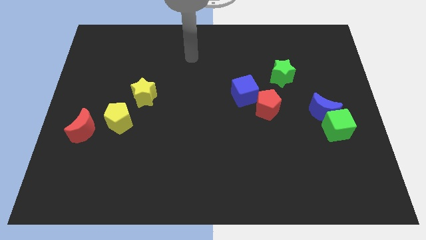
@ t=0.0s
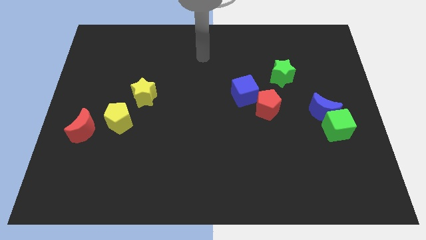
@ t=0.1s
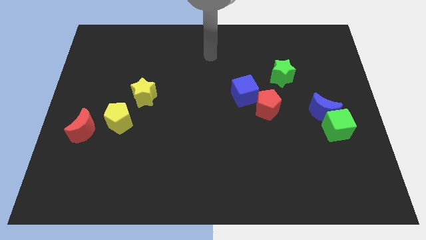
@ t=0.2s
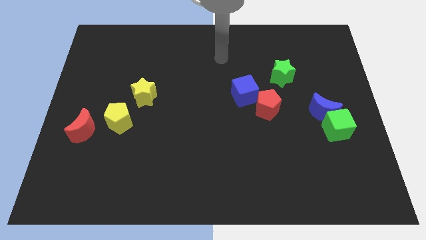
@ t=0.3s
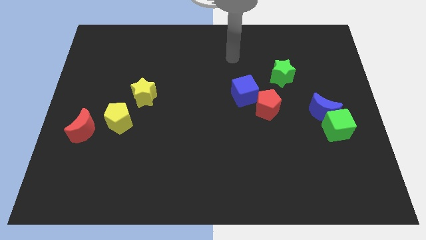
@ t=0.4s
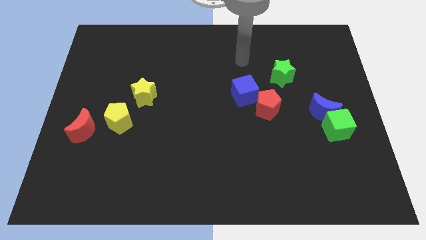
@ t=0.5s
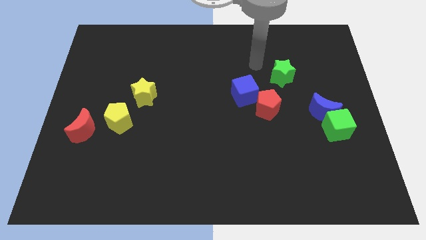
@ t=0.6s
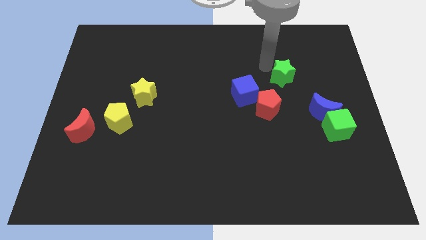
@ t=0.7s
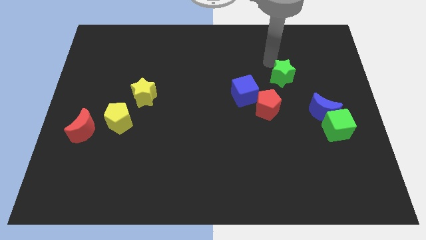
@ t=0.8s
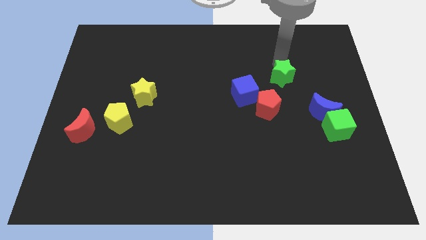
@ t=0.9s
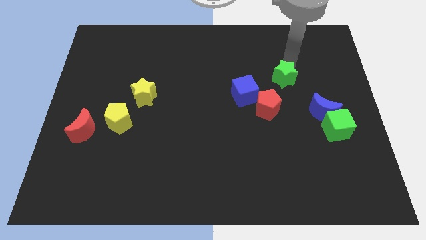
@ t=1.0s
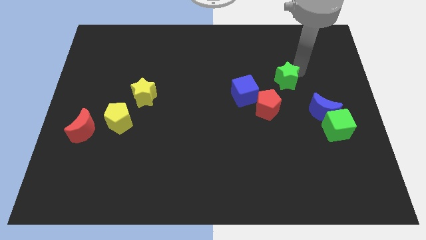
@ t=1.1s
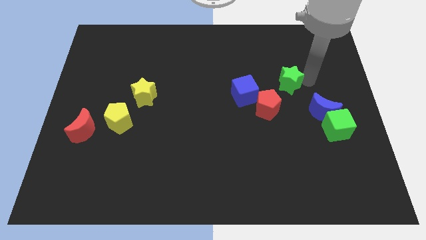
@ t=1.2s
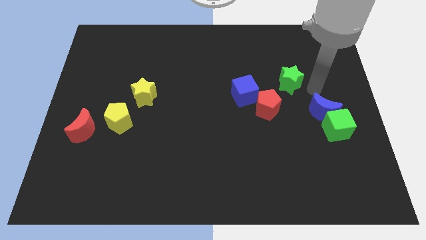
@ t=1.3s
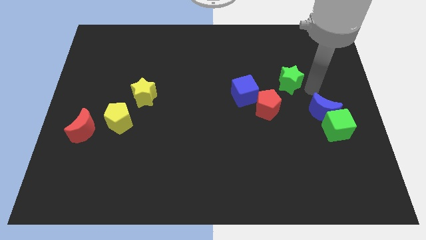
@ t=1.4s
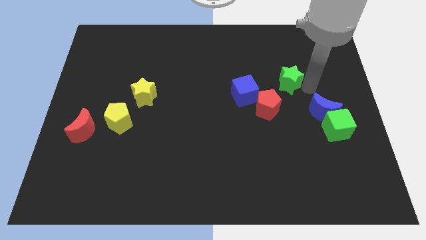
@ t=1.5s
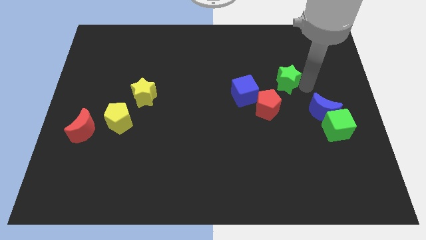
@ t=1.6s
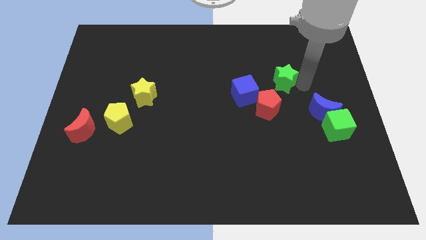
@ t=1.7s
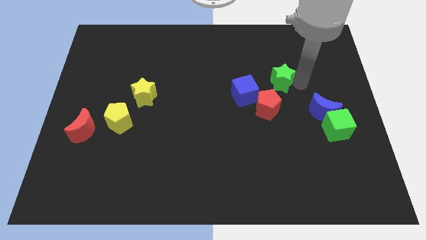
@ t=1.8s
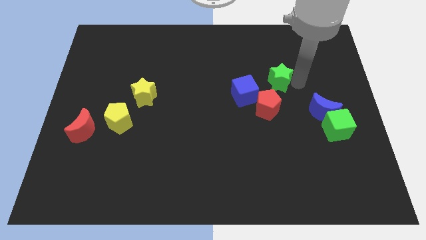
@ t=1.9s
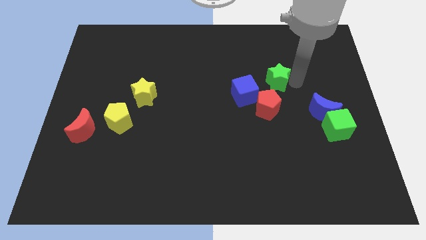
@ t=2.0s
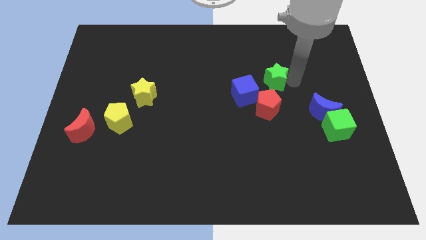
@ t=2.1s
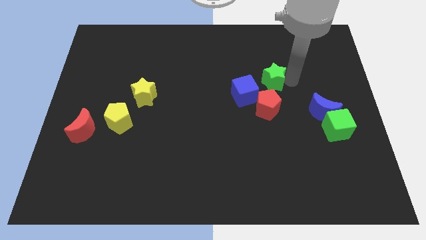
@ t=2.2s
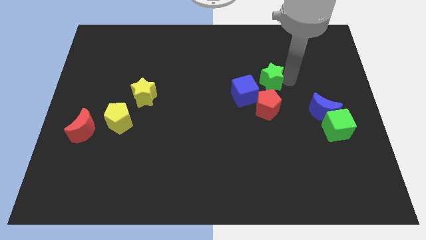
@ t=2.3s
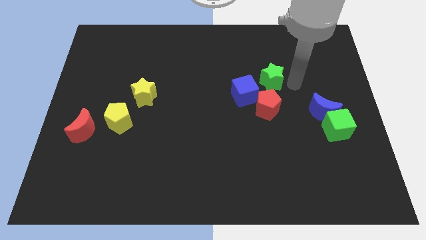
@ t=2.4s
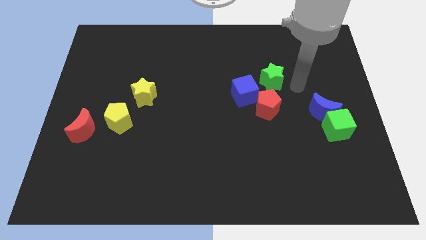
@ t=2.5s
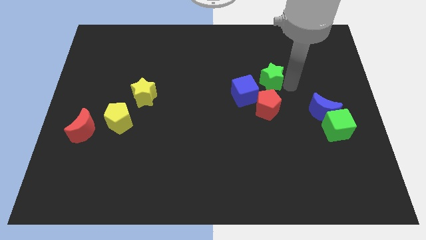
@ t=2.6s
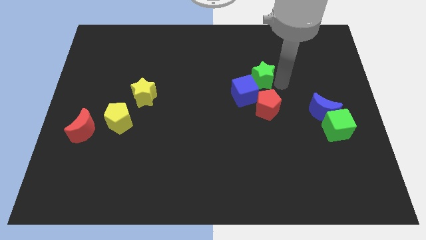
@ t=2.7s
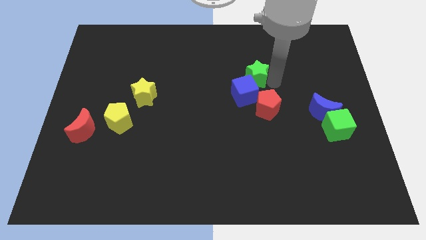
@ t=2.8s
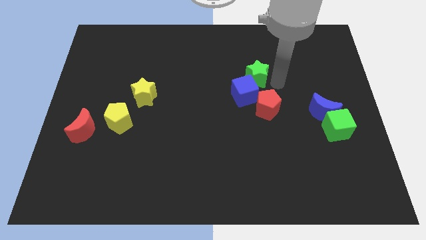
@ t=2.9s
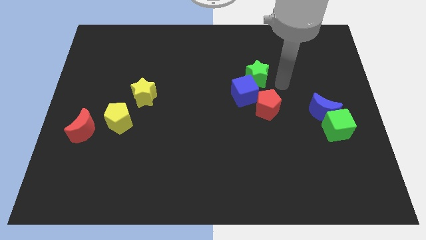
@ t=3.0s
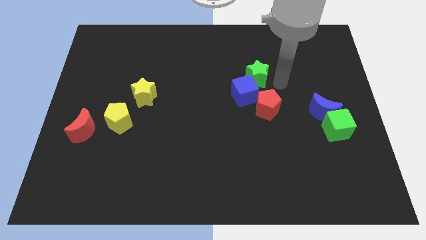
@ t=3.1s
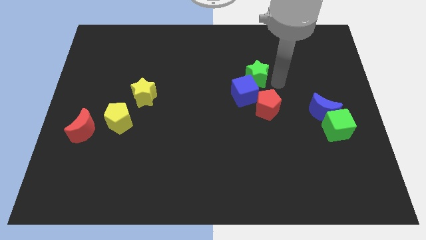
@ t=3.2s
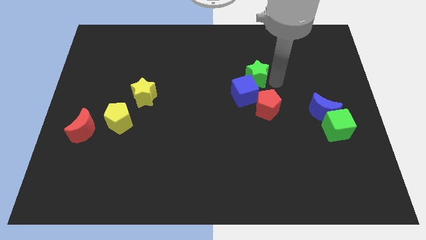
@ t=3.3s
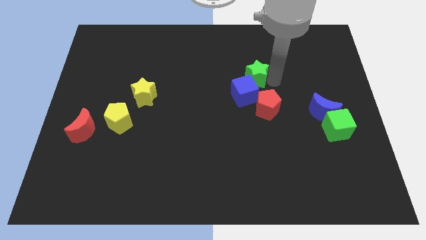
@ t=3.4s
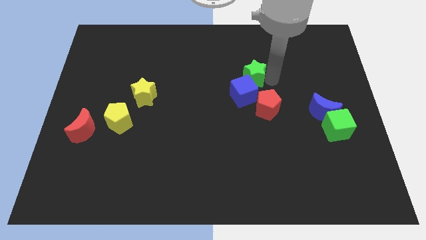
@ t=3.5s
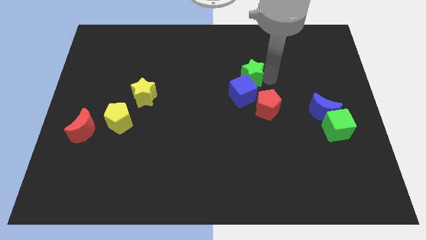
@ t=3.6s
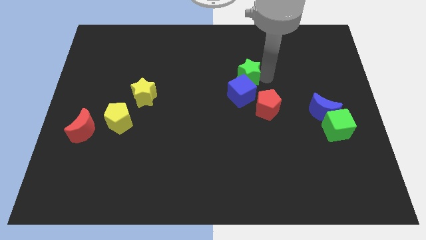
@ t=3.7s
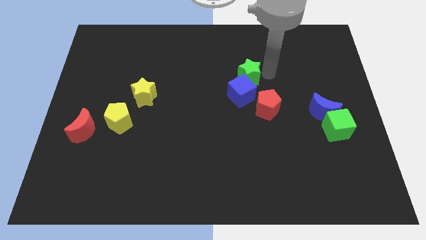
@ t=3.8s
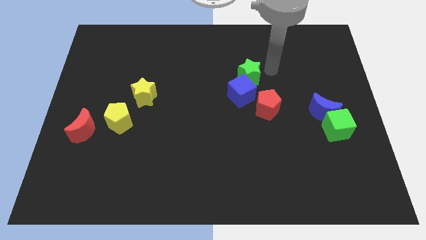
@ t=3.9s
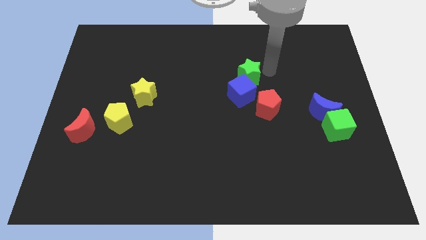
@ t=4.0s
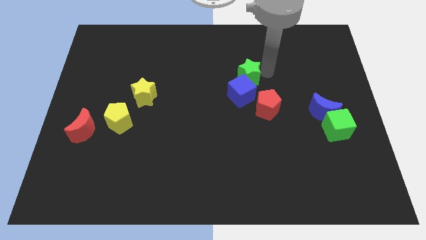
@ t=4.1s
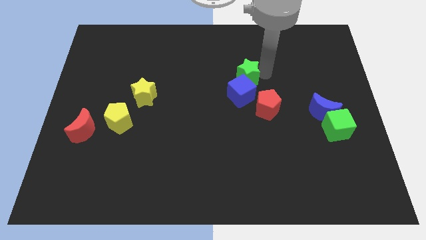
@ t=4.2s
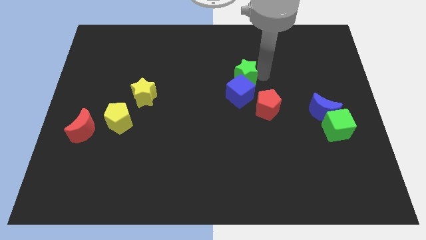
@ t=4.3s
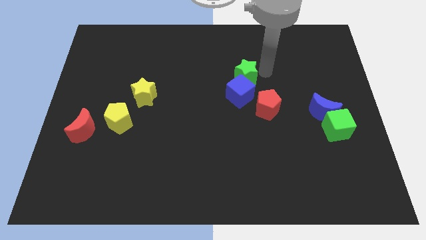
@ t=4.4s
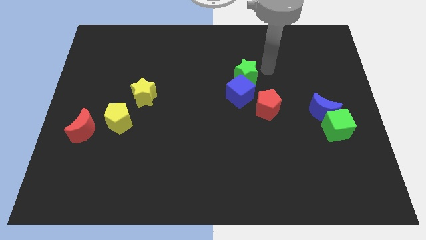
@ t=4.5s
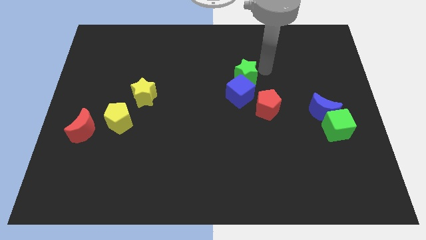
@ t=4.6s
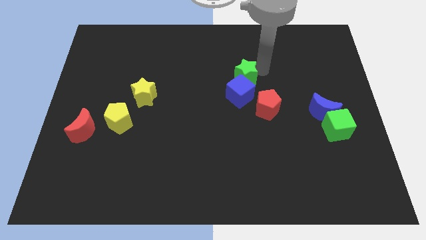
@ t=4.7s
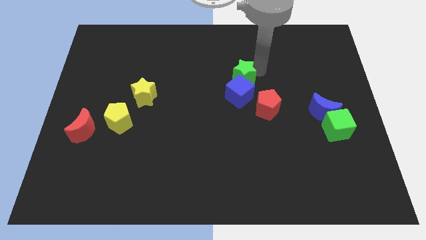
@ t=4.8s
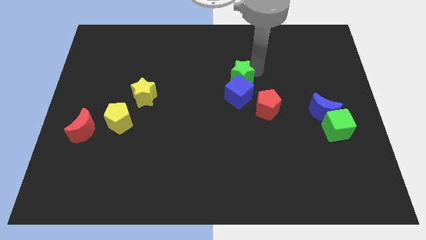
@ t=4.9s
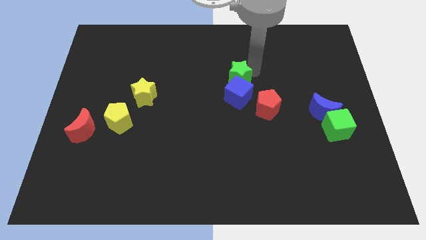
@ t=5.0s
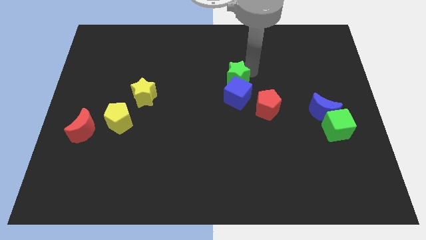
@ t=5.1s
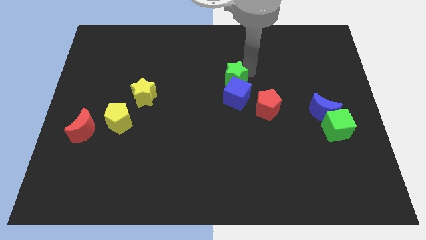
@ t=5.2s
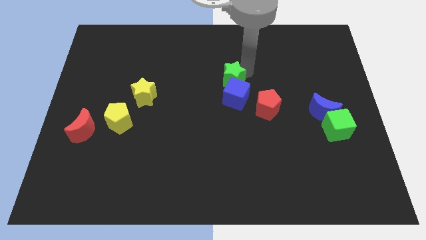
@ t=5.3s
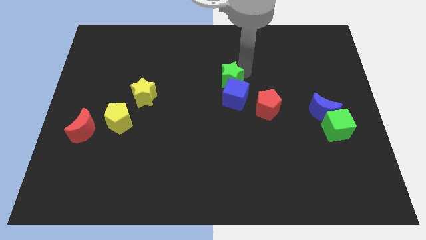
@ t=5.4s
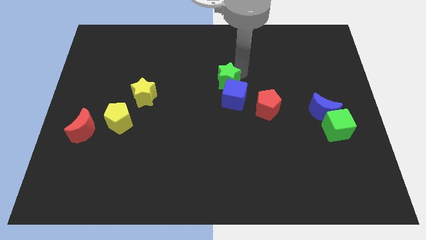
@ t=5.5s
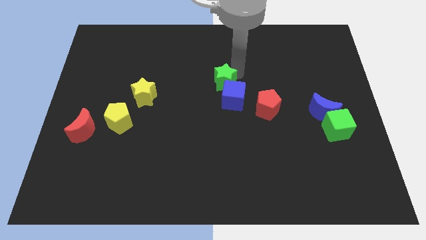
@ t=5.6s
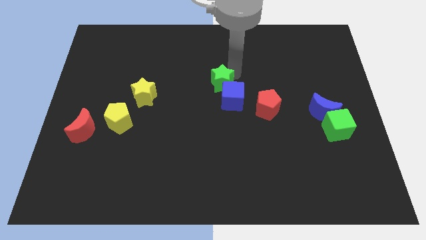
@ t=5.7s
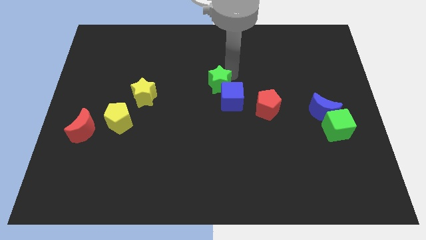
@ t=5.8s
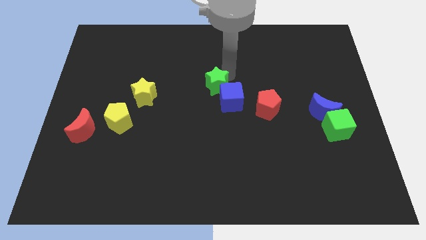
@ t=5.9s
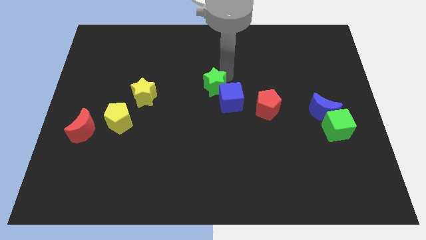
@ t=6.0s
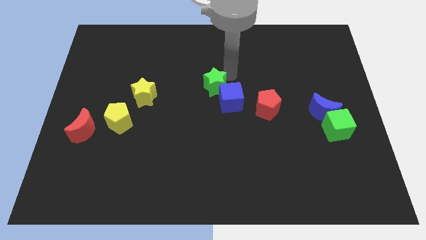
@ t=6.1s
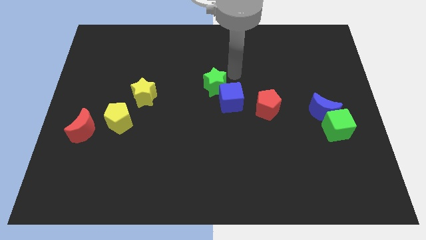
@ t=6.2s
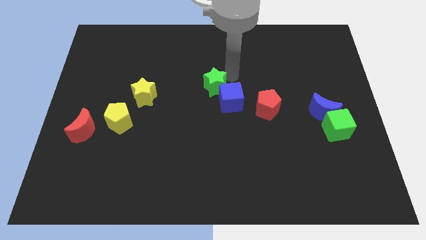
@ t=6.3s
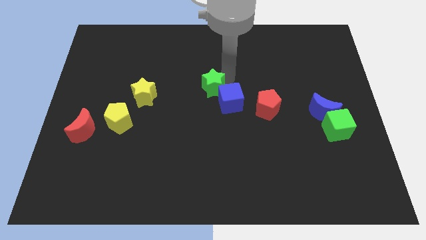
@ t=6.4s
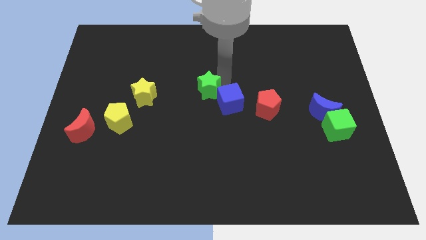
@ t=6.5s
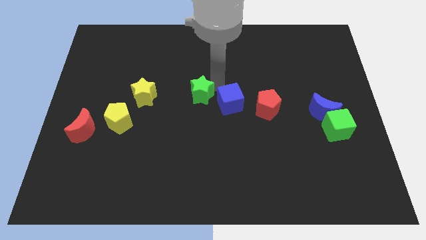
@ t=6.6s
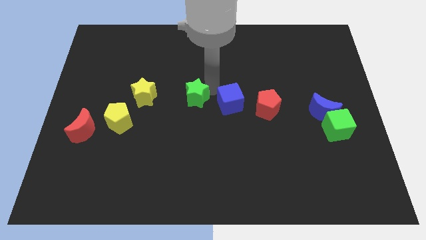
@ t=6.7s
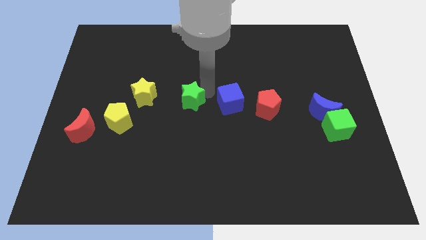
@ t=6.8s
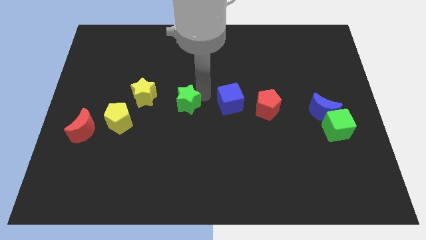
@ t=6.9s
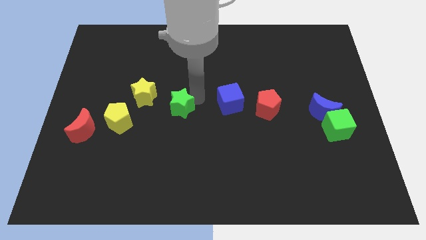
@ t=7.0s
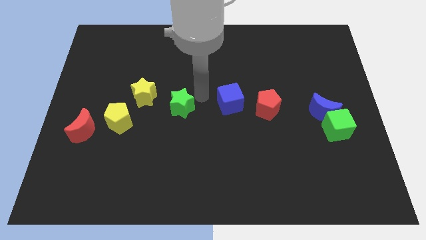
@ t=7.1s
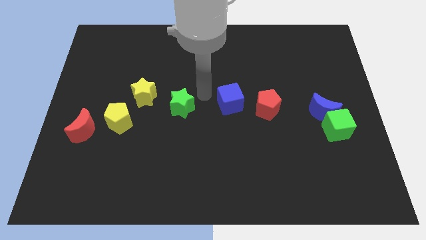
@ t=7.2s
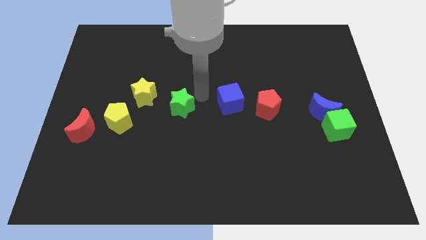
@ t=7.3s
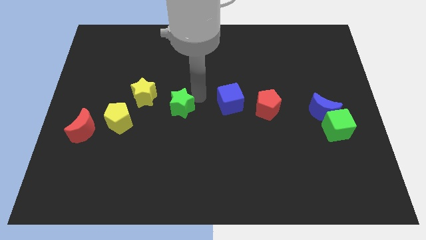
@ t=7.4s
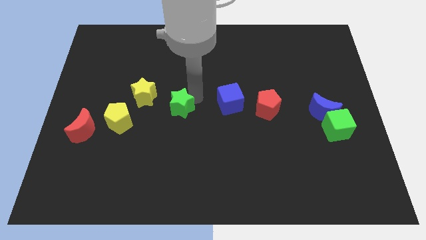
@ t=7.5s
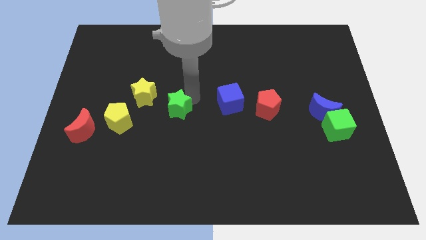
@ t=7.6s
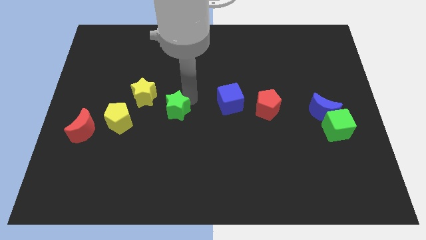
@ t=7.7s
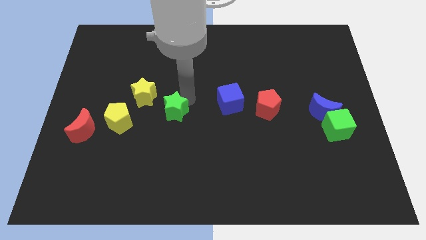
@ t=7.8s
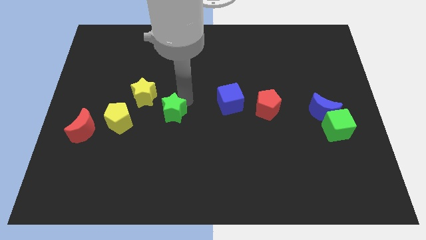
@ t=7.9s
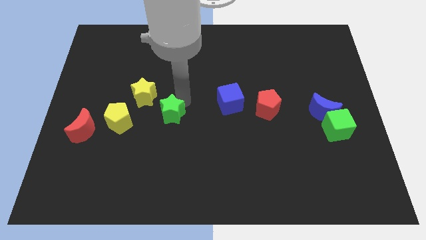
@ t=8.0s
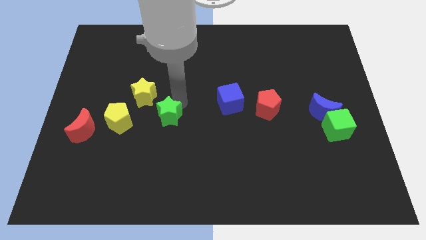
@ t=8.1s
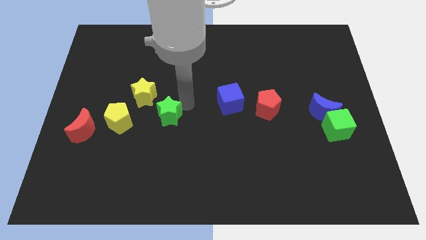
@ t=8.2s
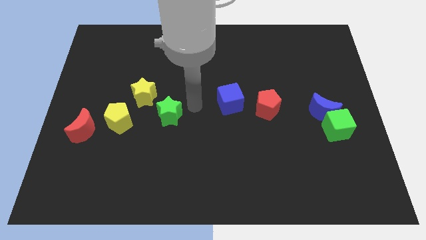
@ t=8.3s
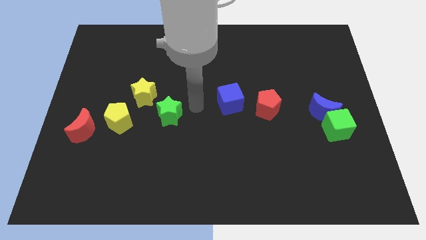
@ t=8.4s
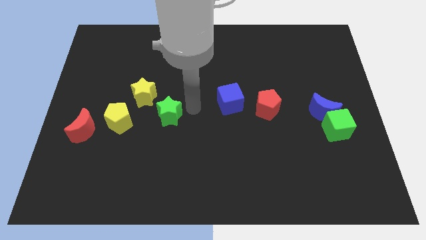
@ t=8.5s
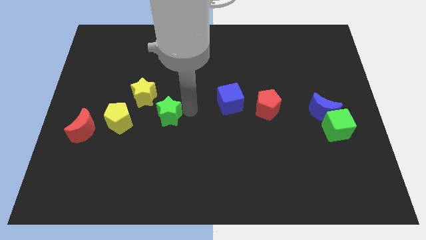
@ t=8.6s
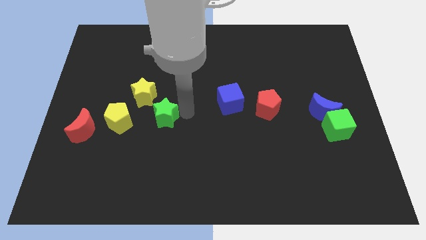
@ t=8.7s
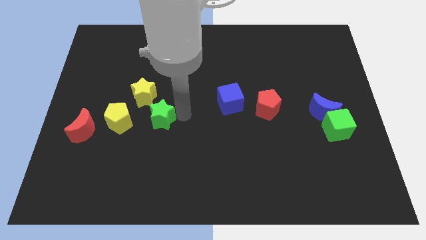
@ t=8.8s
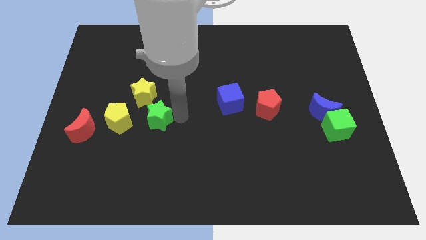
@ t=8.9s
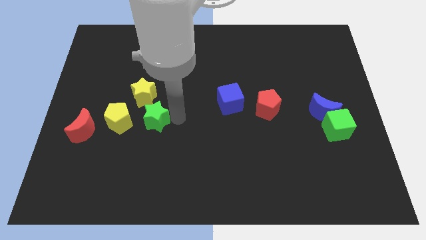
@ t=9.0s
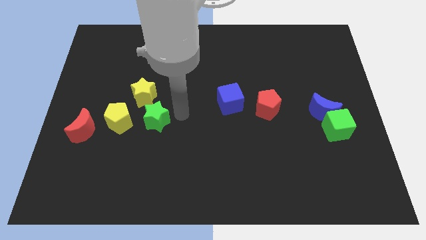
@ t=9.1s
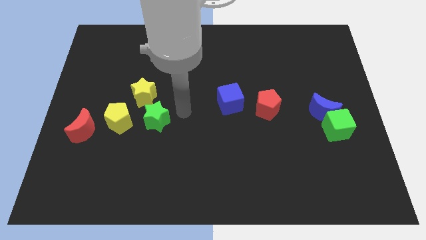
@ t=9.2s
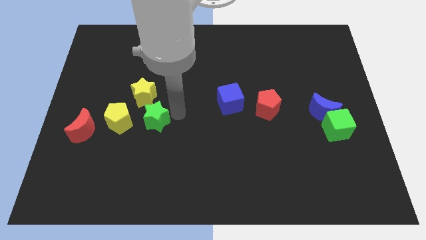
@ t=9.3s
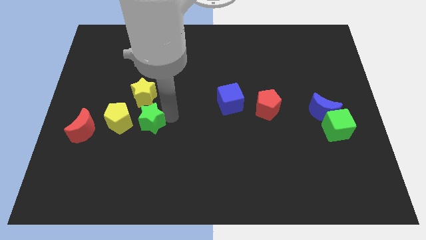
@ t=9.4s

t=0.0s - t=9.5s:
push the green star right of the red moon
